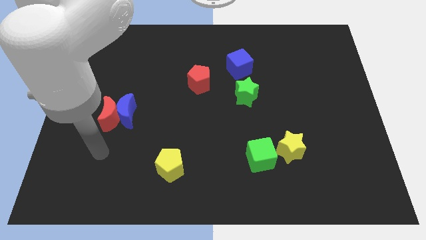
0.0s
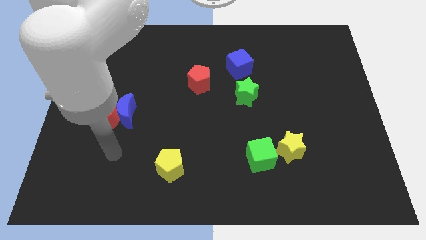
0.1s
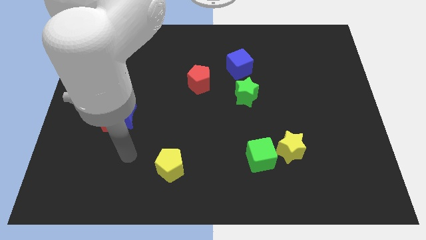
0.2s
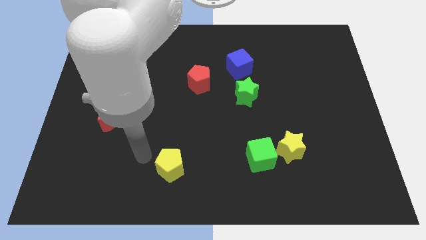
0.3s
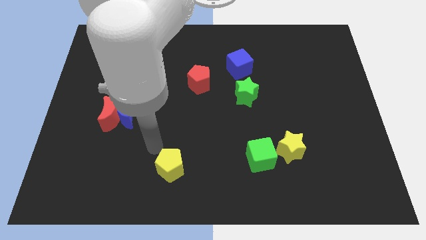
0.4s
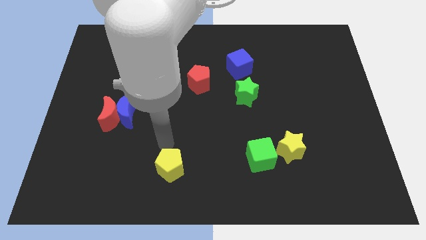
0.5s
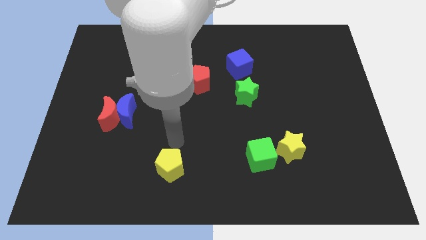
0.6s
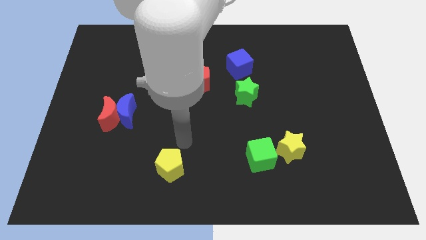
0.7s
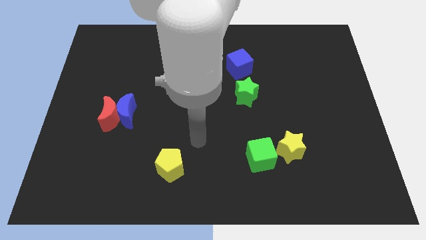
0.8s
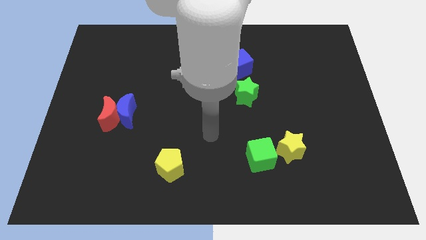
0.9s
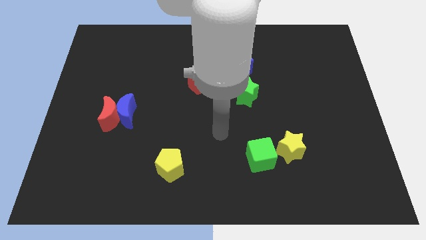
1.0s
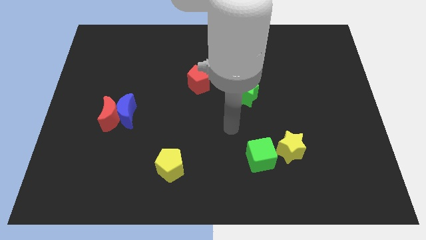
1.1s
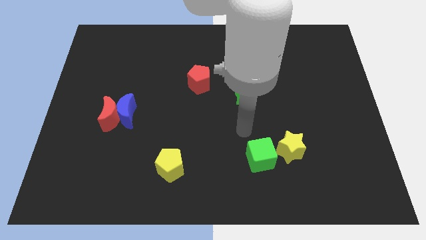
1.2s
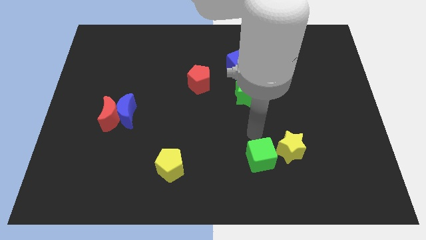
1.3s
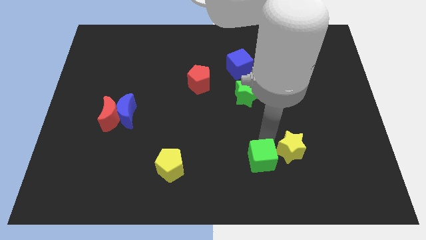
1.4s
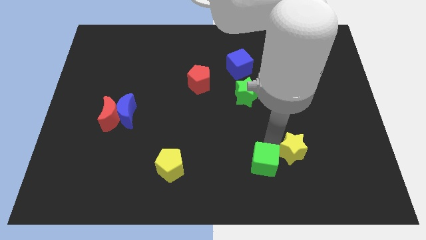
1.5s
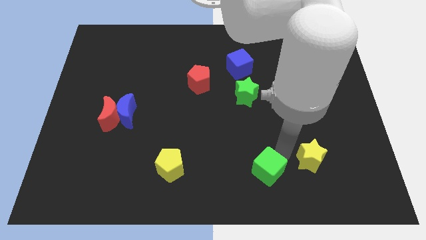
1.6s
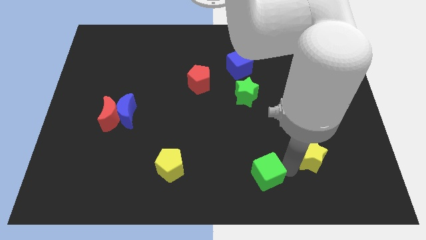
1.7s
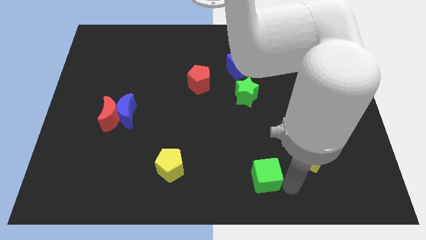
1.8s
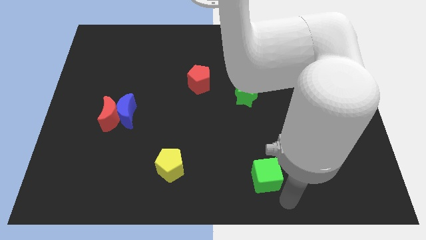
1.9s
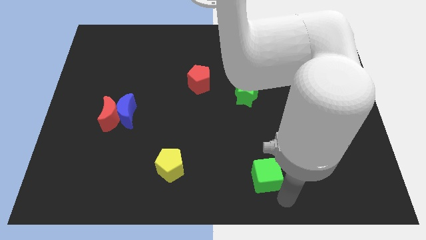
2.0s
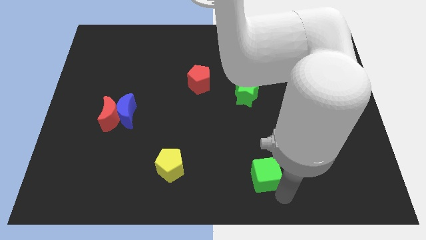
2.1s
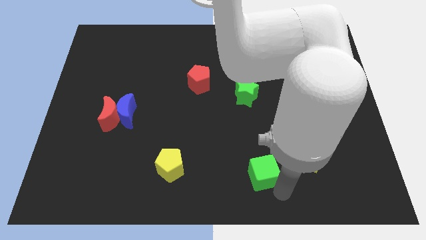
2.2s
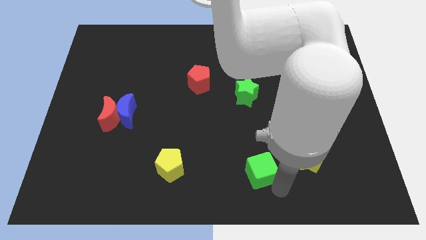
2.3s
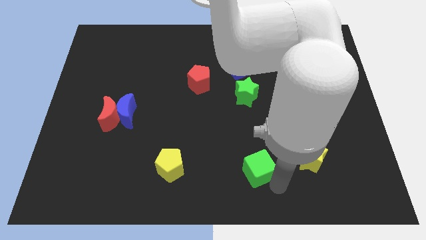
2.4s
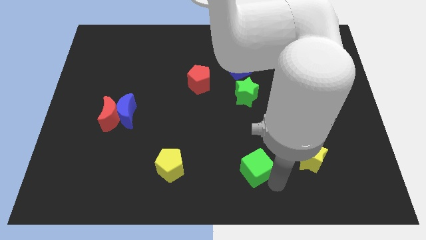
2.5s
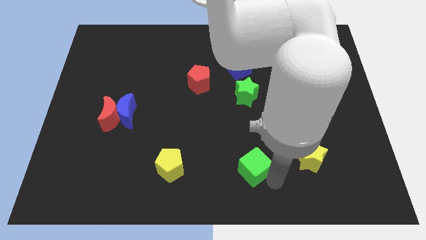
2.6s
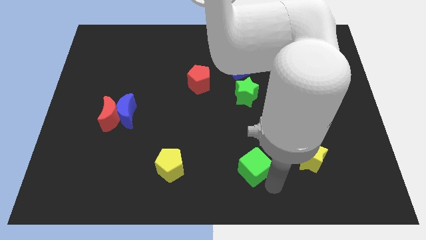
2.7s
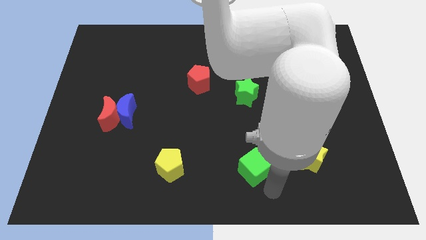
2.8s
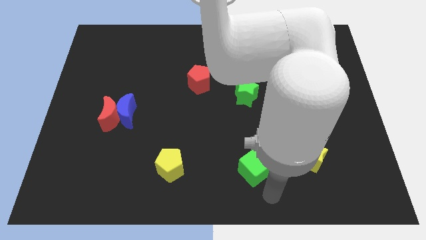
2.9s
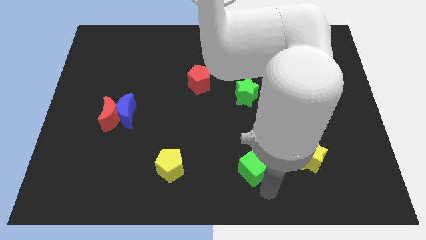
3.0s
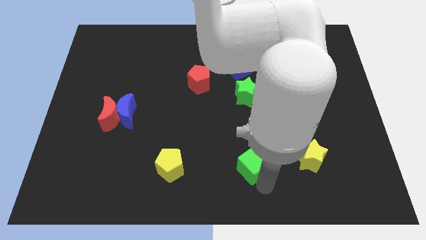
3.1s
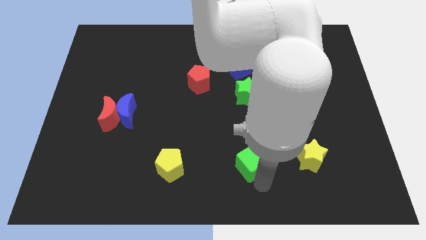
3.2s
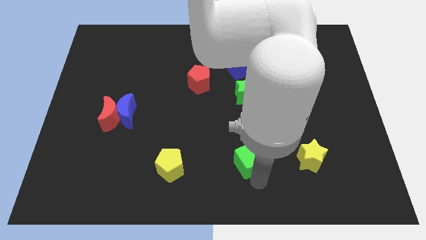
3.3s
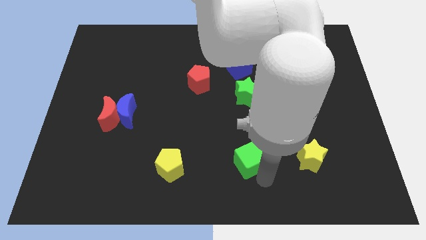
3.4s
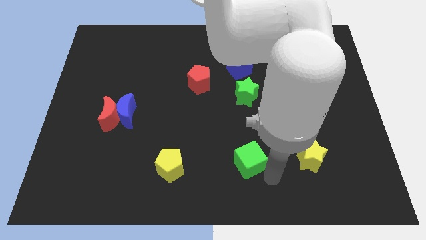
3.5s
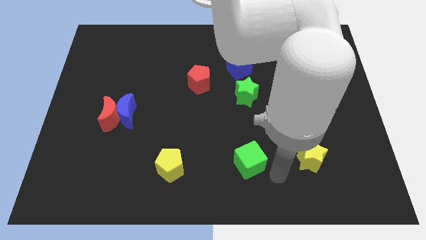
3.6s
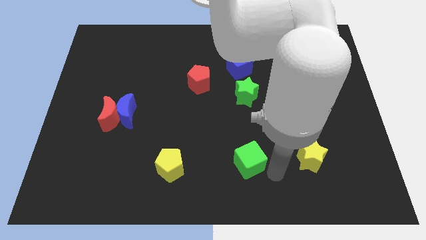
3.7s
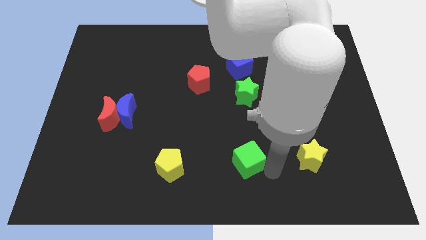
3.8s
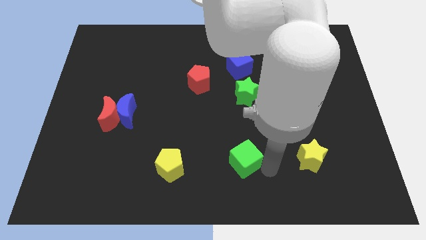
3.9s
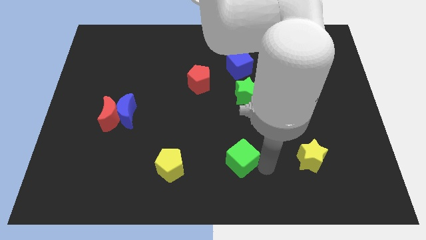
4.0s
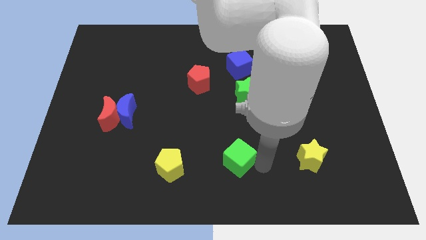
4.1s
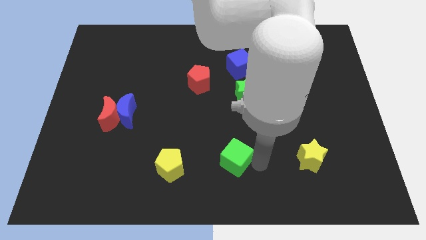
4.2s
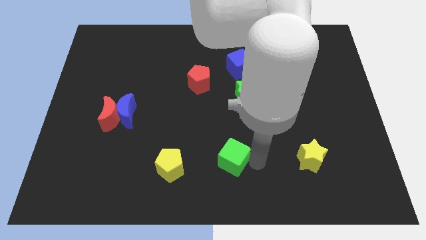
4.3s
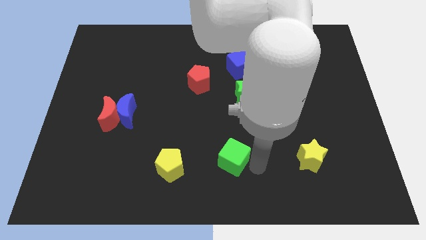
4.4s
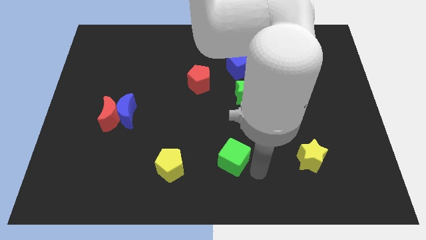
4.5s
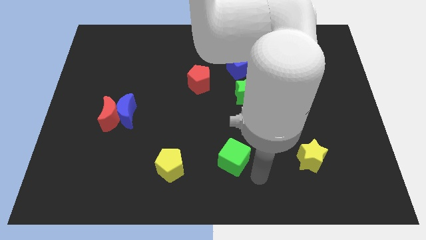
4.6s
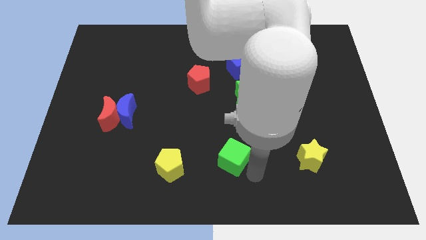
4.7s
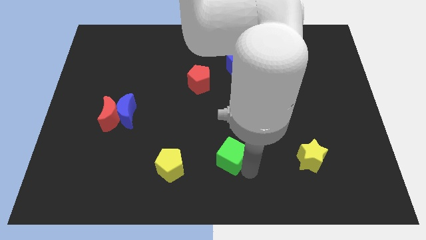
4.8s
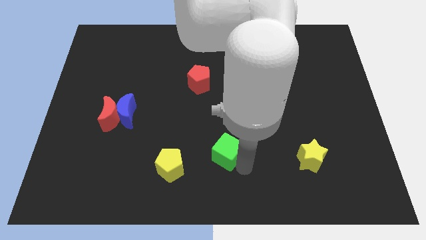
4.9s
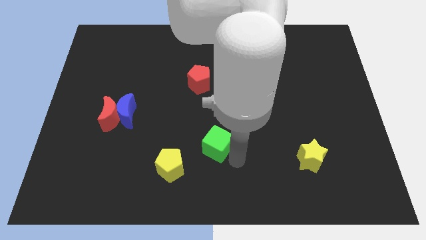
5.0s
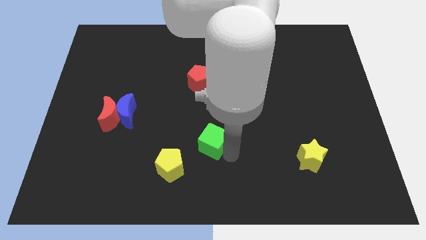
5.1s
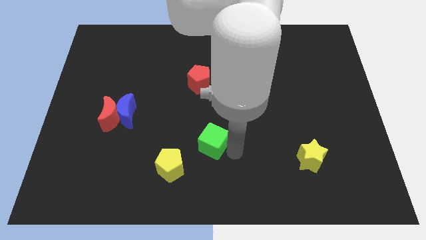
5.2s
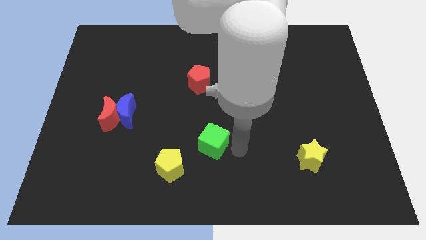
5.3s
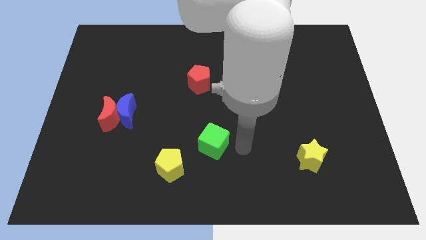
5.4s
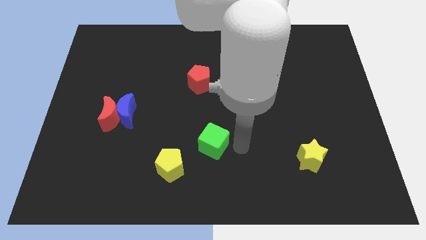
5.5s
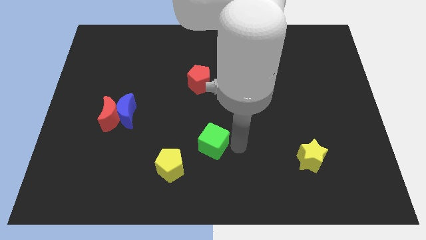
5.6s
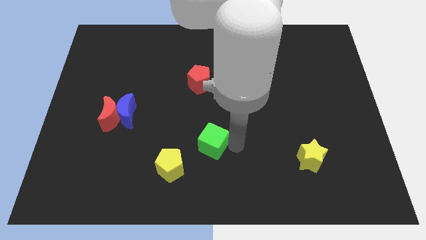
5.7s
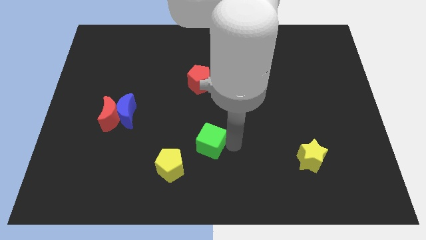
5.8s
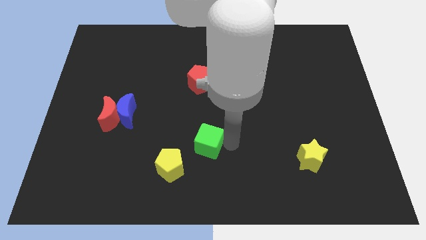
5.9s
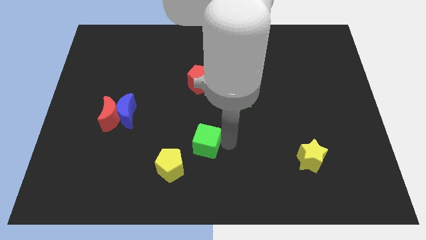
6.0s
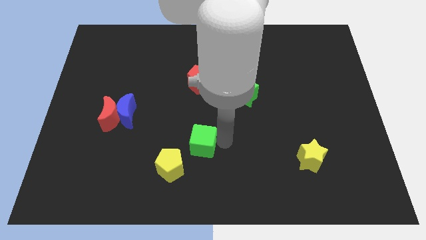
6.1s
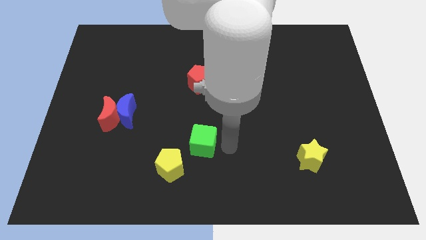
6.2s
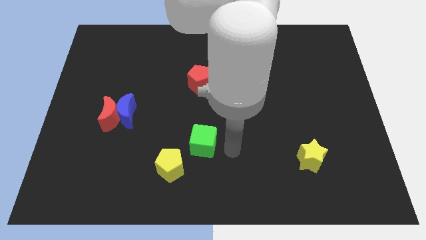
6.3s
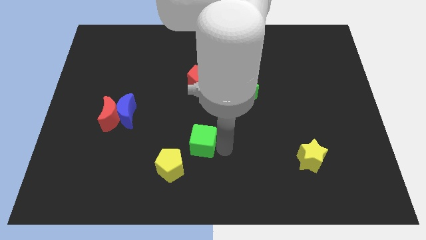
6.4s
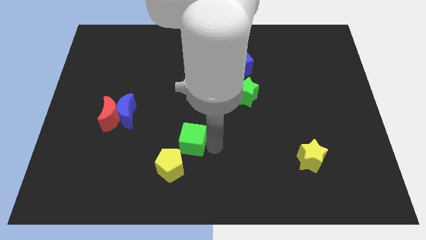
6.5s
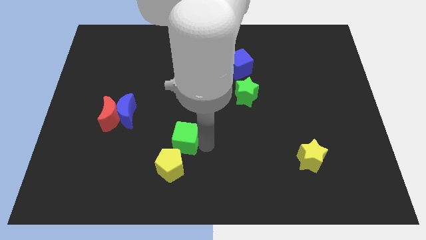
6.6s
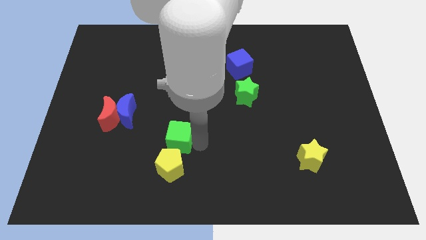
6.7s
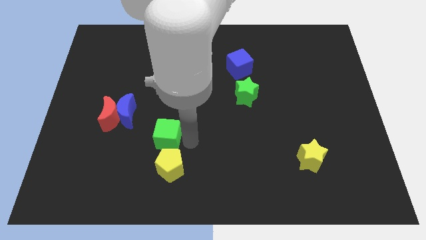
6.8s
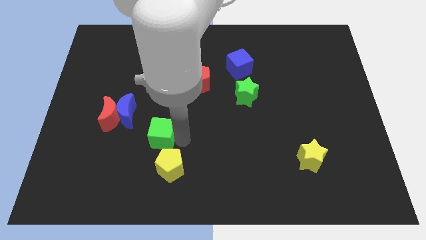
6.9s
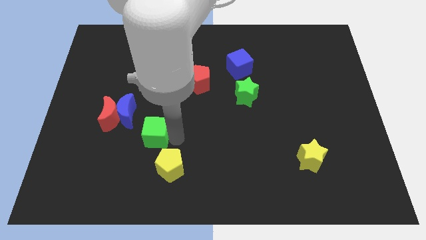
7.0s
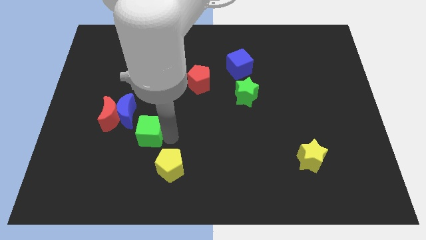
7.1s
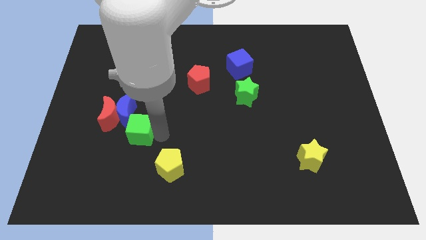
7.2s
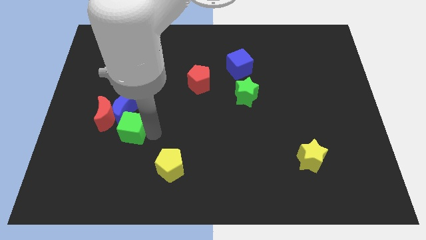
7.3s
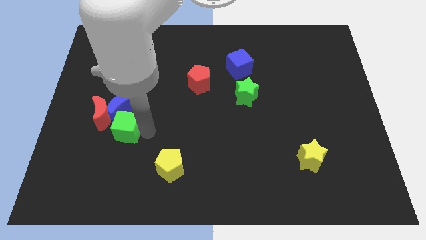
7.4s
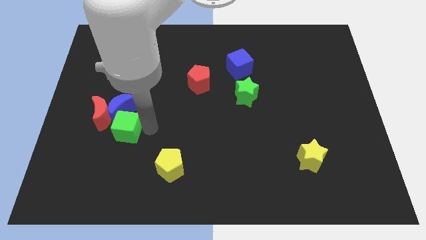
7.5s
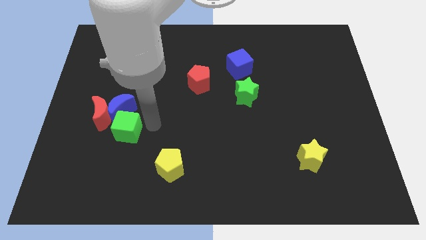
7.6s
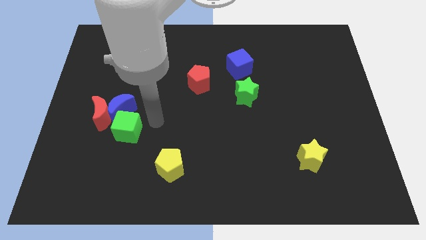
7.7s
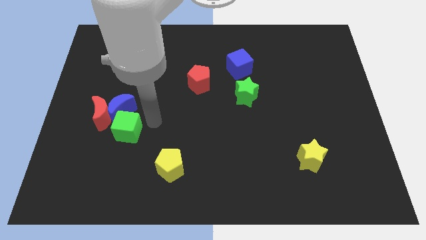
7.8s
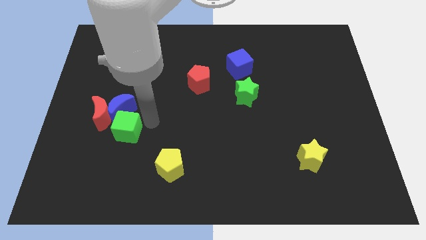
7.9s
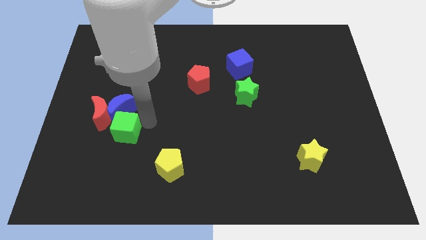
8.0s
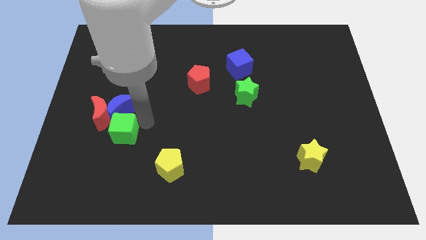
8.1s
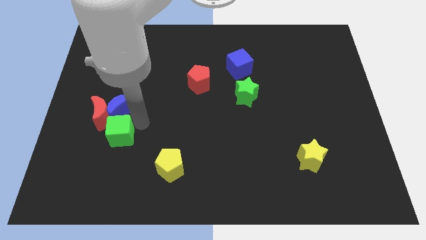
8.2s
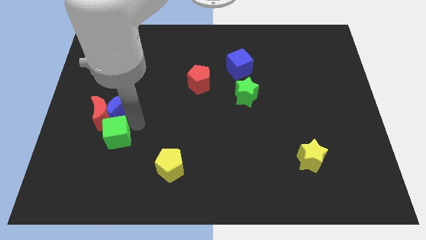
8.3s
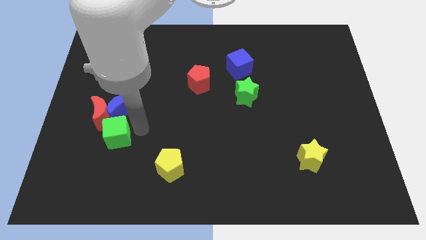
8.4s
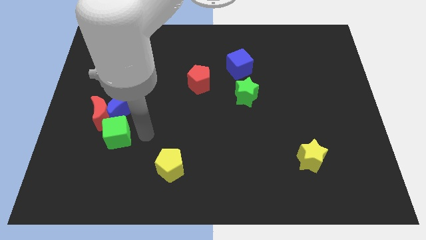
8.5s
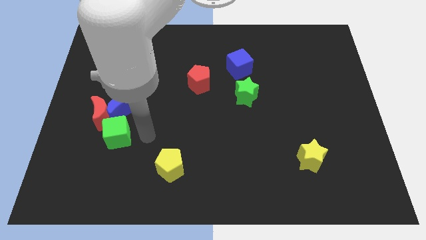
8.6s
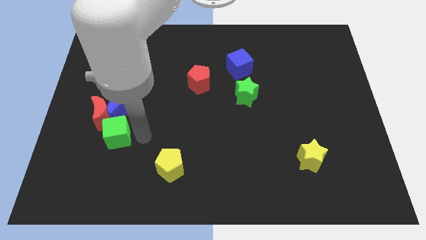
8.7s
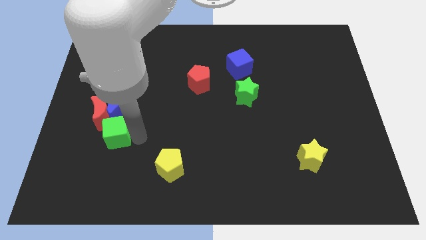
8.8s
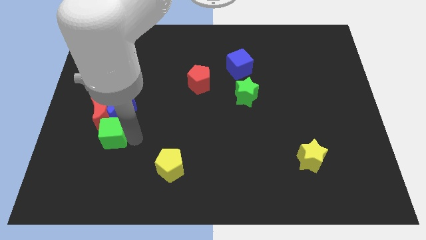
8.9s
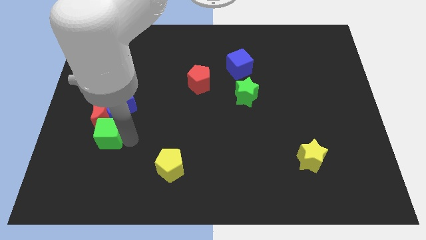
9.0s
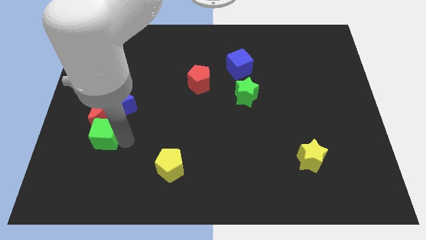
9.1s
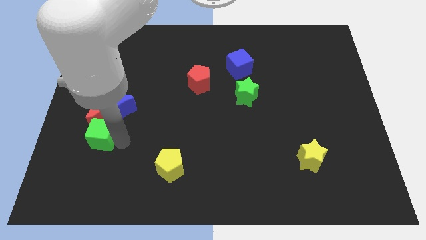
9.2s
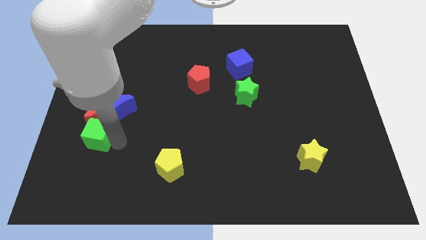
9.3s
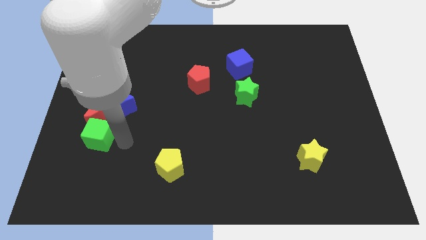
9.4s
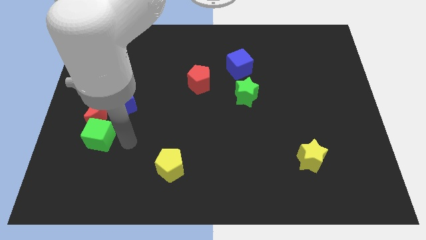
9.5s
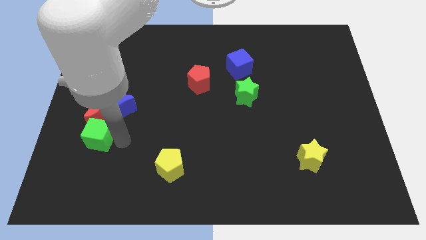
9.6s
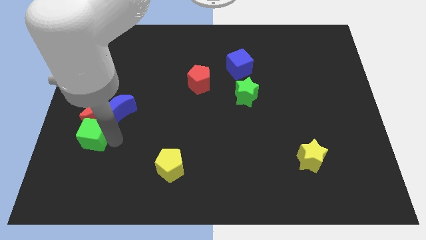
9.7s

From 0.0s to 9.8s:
put the green cube to the bottom left side of the red moon
